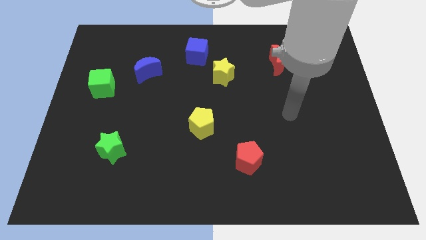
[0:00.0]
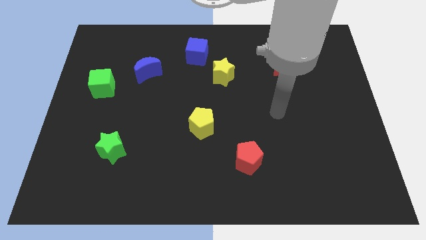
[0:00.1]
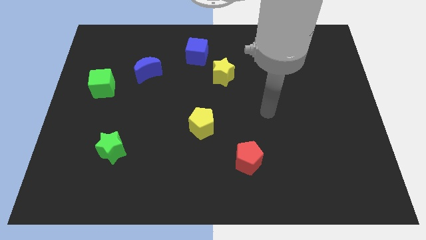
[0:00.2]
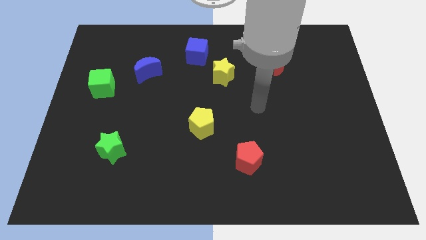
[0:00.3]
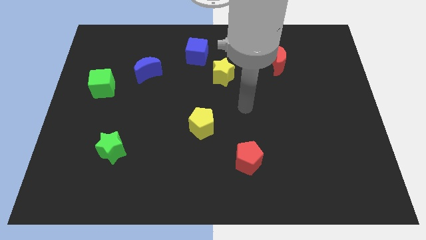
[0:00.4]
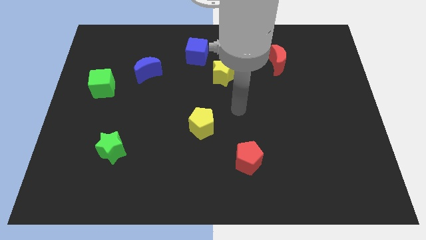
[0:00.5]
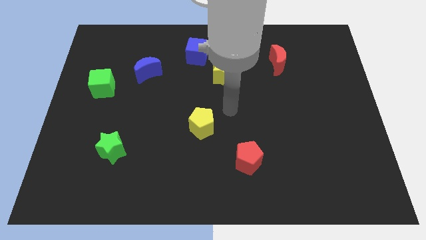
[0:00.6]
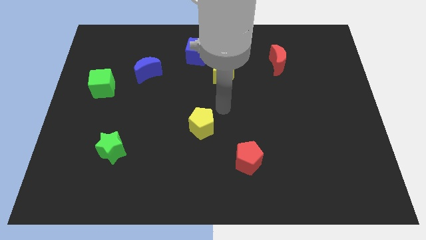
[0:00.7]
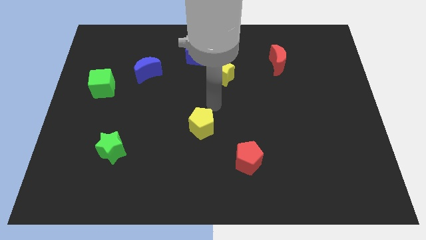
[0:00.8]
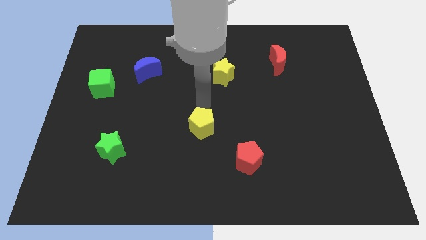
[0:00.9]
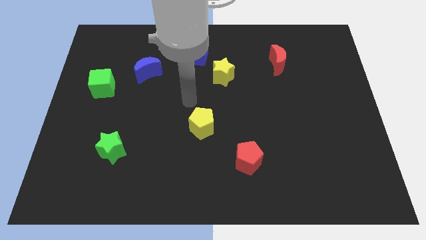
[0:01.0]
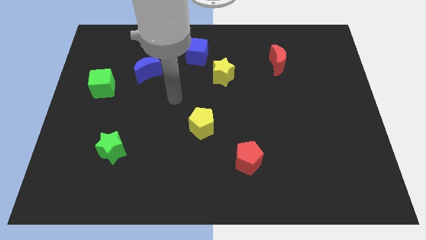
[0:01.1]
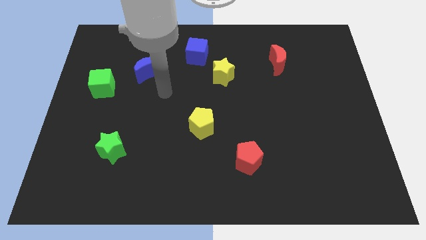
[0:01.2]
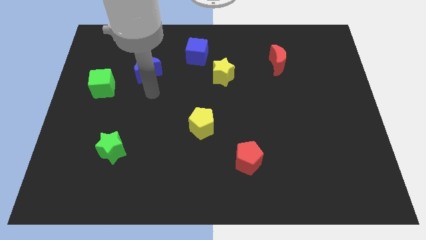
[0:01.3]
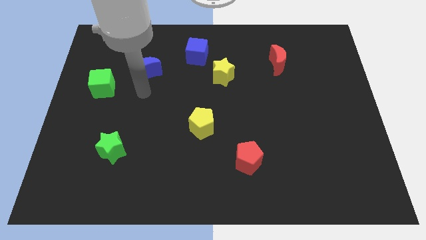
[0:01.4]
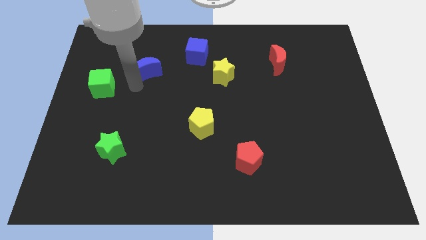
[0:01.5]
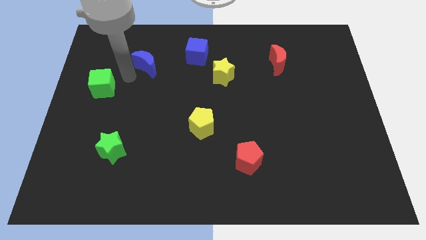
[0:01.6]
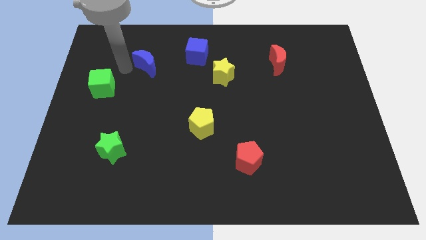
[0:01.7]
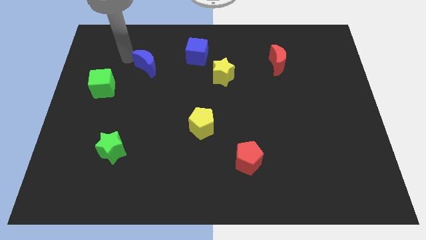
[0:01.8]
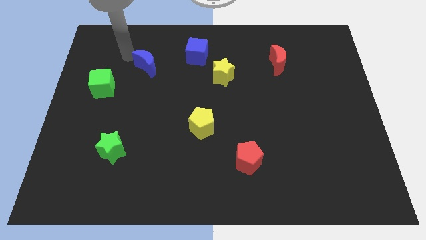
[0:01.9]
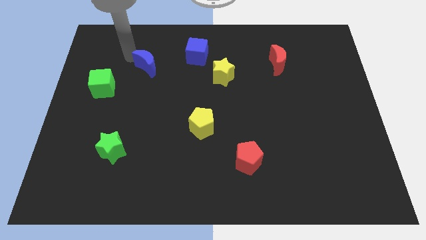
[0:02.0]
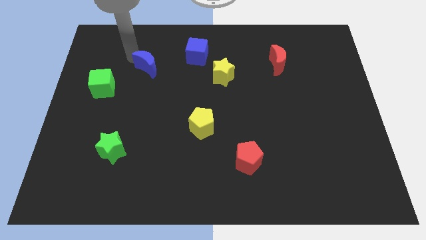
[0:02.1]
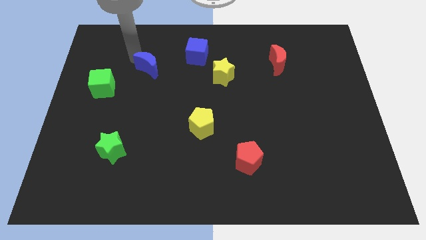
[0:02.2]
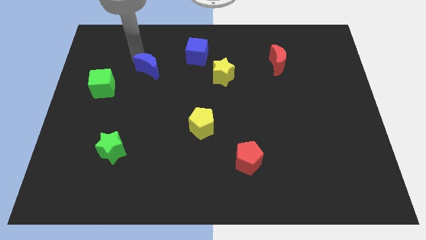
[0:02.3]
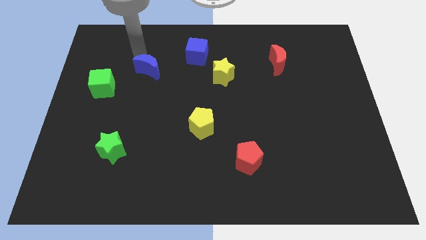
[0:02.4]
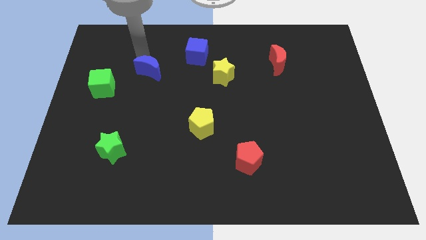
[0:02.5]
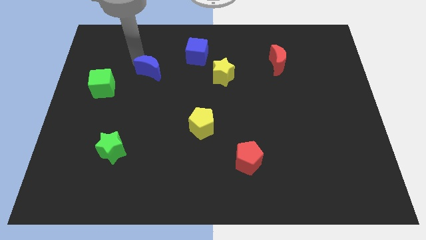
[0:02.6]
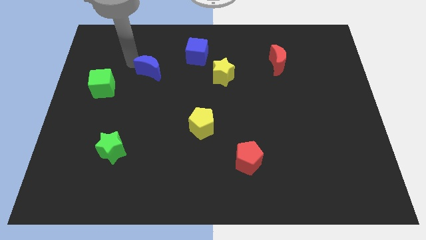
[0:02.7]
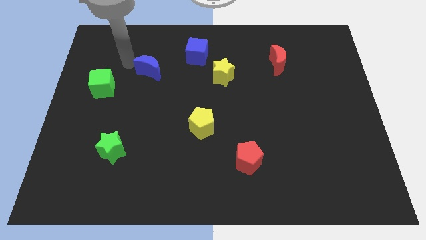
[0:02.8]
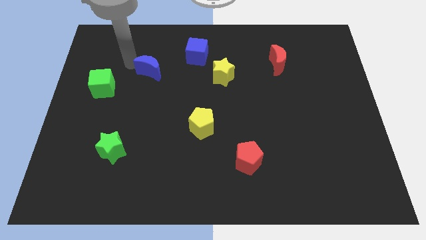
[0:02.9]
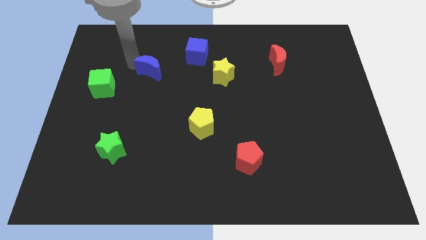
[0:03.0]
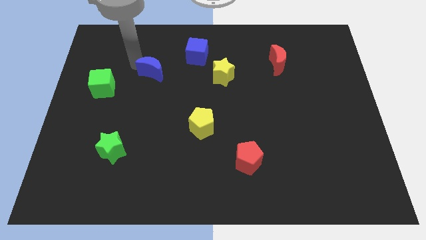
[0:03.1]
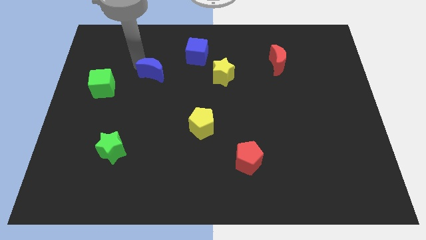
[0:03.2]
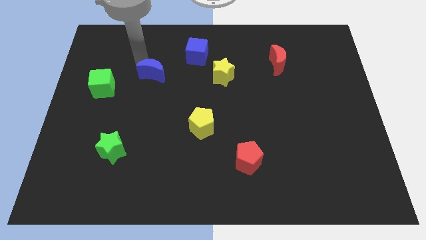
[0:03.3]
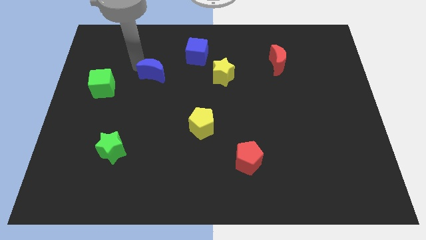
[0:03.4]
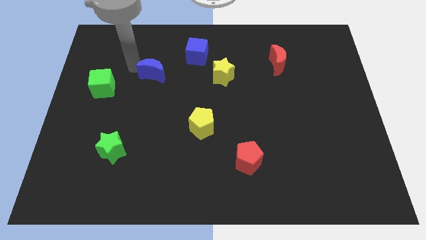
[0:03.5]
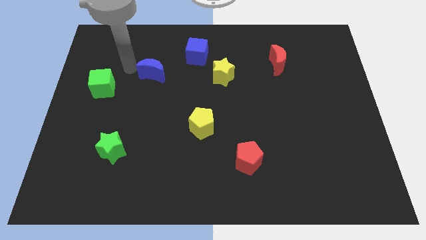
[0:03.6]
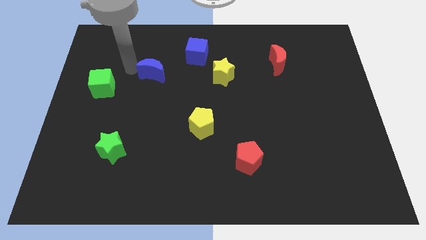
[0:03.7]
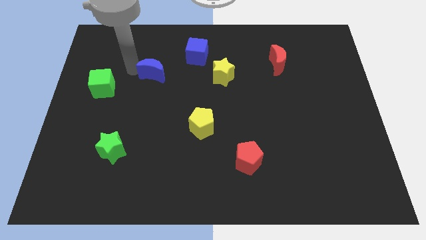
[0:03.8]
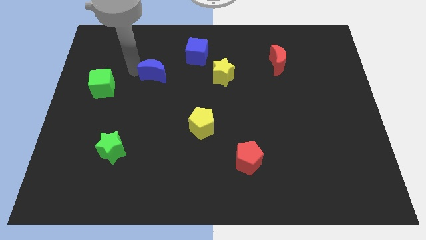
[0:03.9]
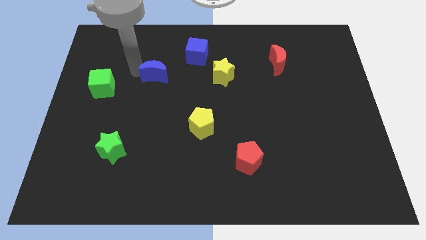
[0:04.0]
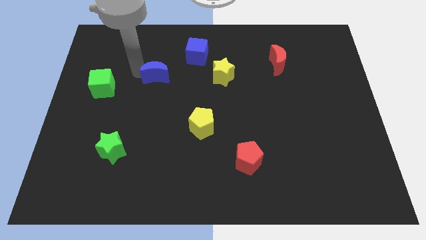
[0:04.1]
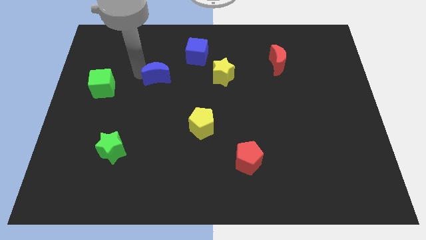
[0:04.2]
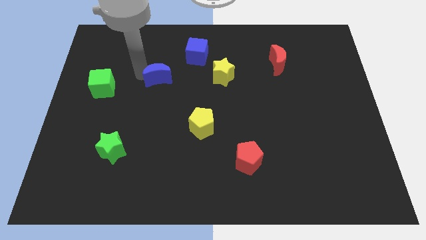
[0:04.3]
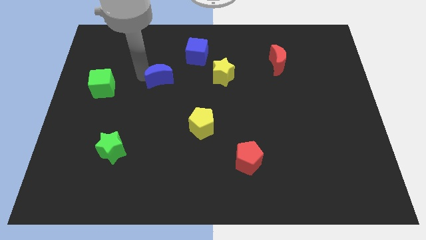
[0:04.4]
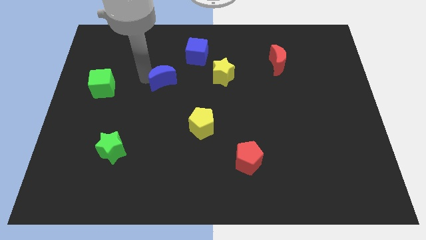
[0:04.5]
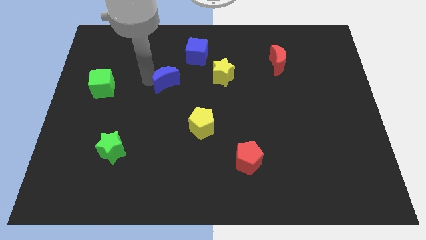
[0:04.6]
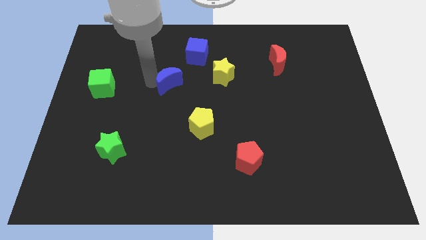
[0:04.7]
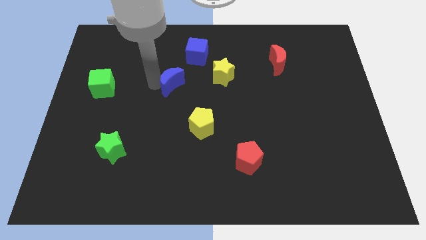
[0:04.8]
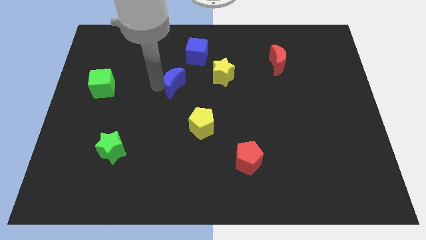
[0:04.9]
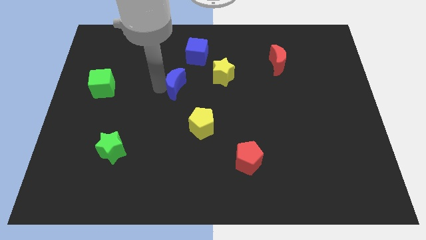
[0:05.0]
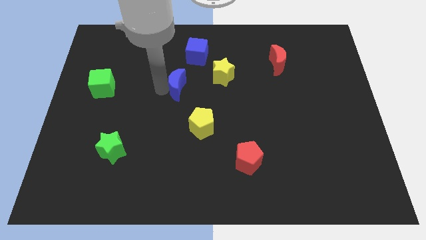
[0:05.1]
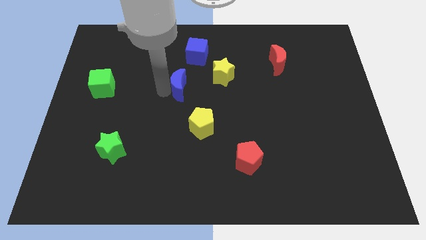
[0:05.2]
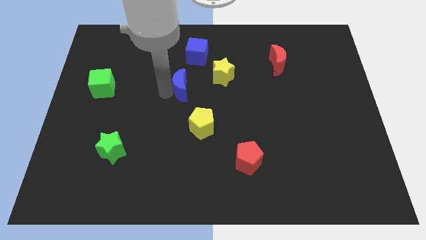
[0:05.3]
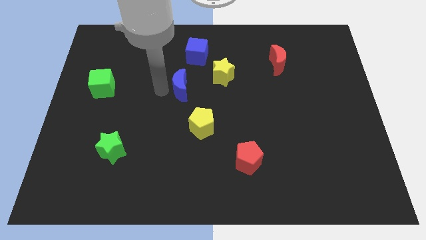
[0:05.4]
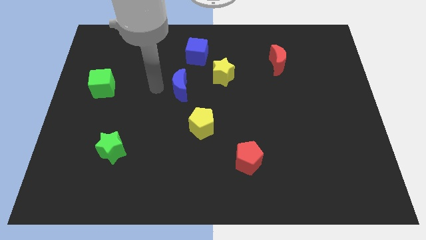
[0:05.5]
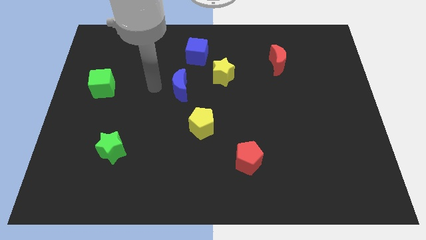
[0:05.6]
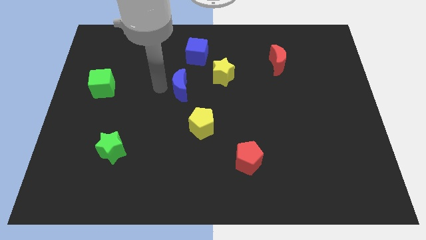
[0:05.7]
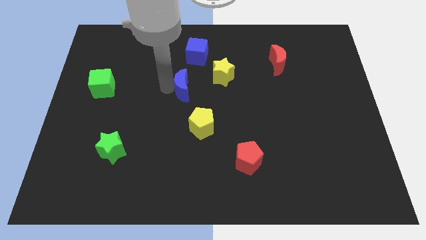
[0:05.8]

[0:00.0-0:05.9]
push the blue moon to the top side of the yellow pentagon

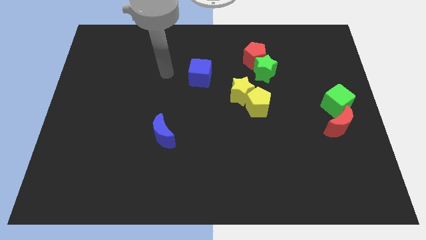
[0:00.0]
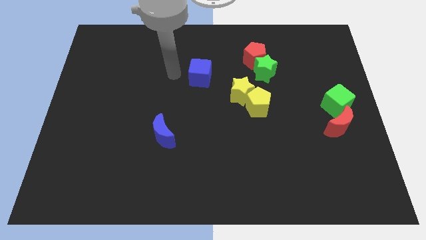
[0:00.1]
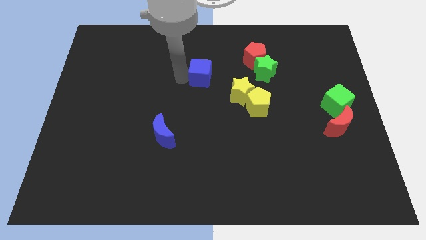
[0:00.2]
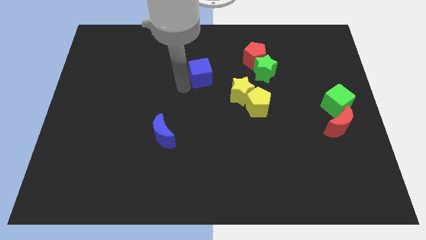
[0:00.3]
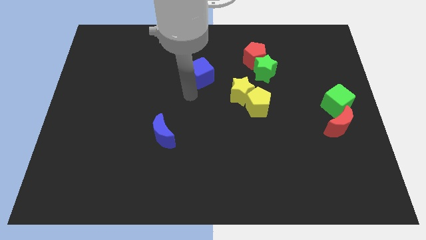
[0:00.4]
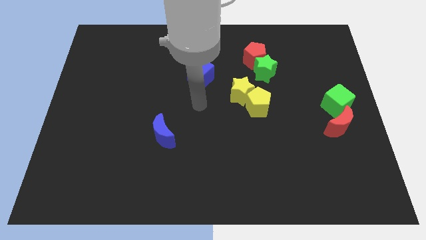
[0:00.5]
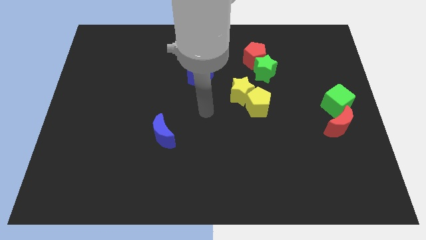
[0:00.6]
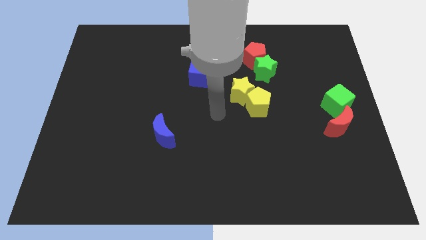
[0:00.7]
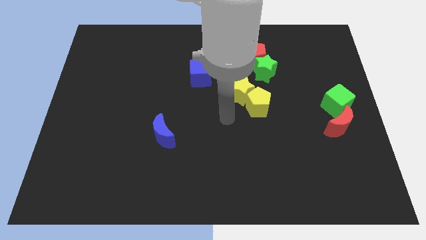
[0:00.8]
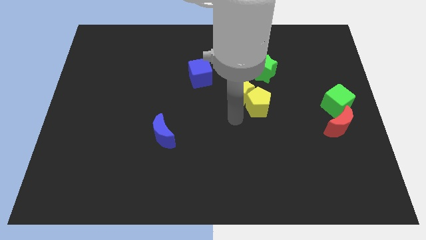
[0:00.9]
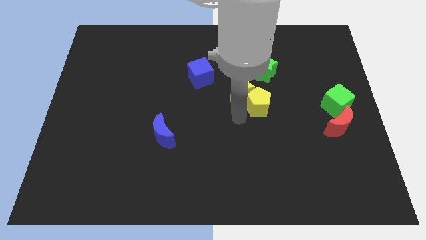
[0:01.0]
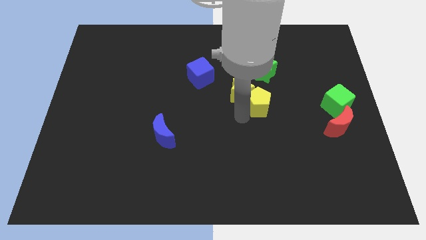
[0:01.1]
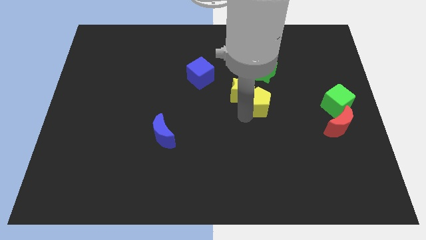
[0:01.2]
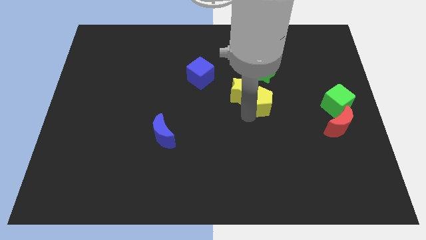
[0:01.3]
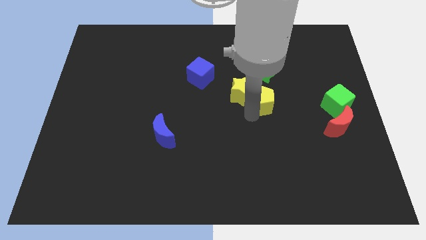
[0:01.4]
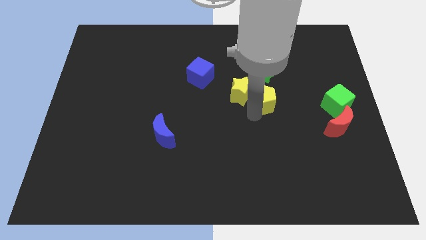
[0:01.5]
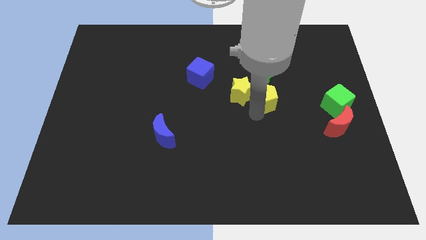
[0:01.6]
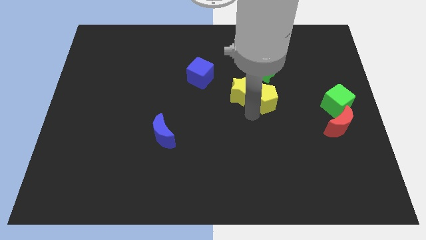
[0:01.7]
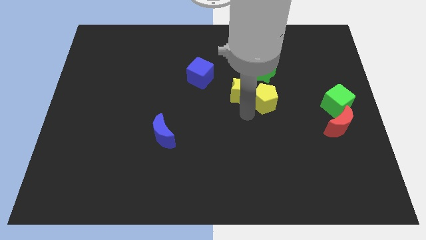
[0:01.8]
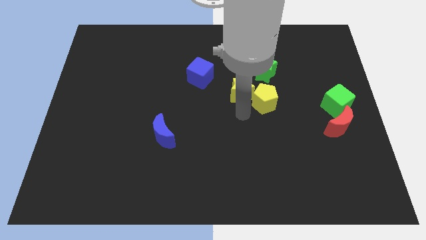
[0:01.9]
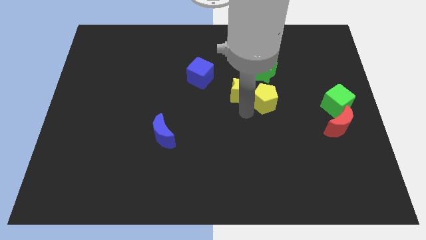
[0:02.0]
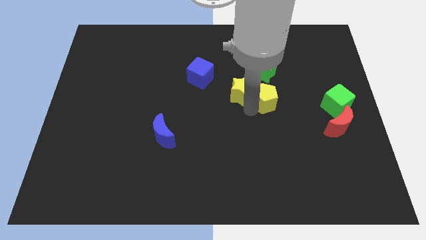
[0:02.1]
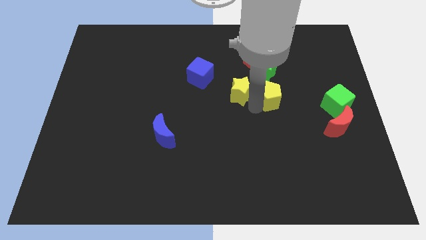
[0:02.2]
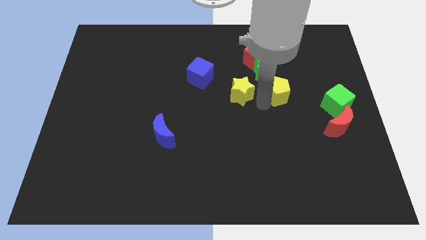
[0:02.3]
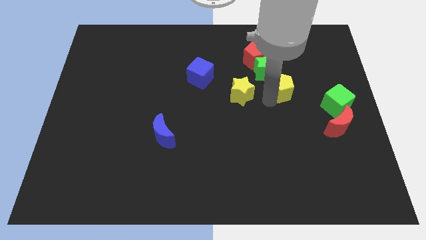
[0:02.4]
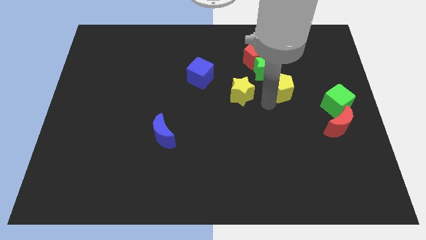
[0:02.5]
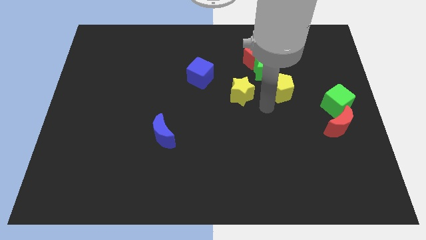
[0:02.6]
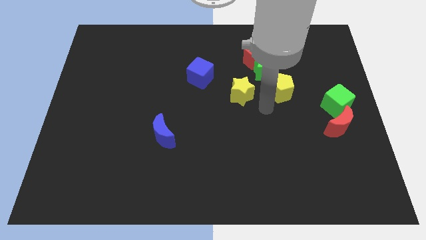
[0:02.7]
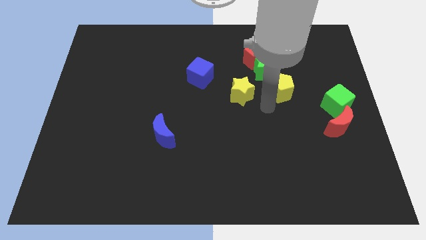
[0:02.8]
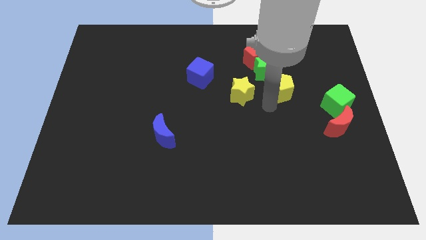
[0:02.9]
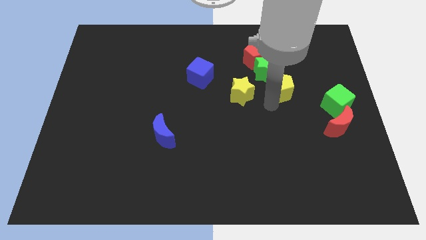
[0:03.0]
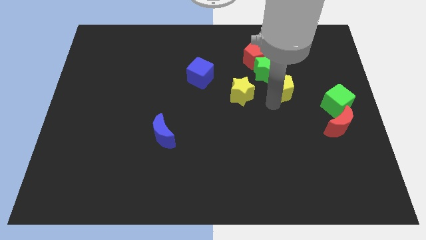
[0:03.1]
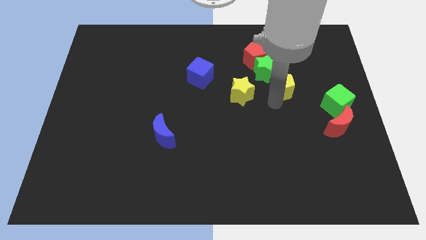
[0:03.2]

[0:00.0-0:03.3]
slide the yellow pentagon to the bottom right side of the red pentagon
